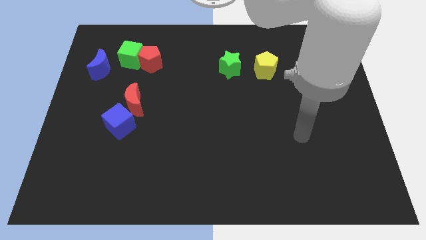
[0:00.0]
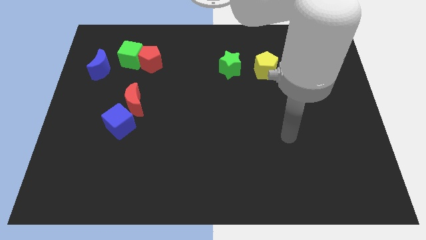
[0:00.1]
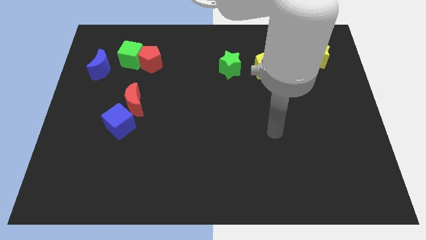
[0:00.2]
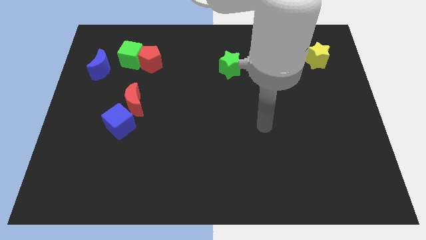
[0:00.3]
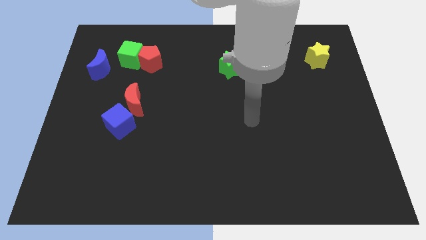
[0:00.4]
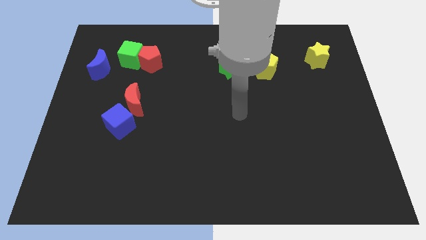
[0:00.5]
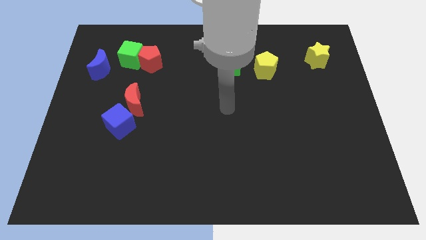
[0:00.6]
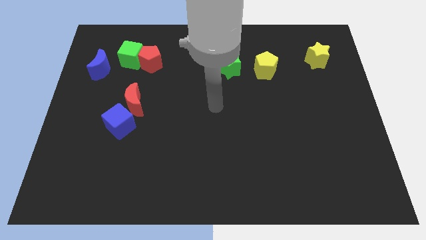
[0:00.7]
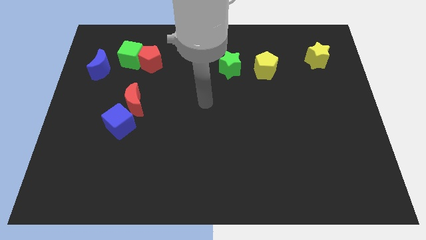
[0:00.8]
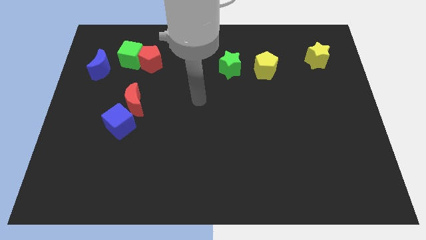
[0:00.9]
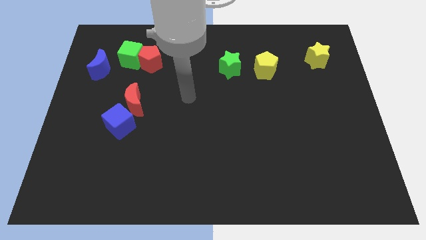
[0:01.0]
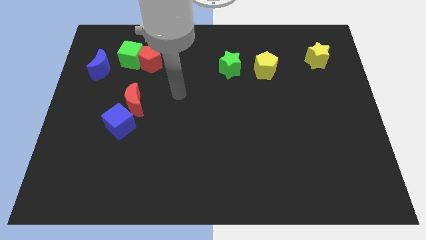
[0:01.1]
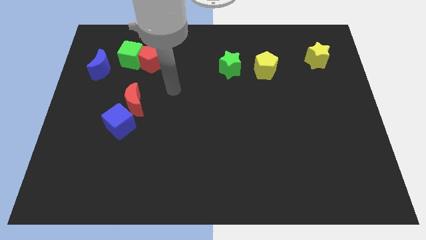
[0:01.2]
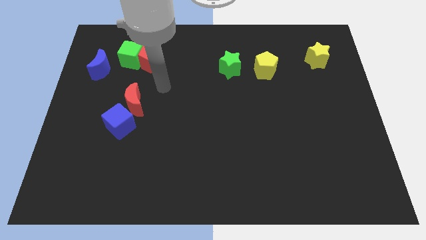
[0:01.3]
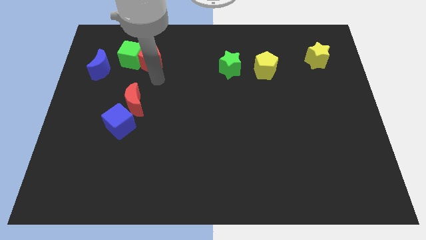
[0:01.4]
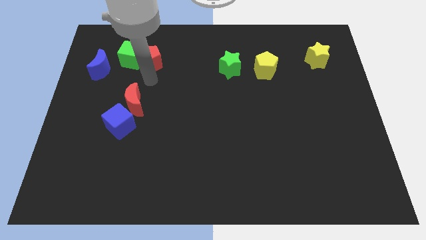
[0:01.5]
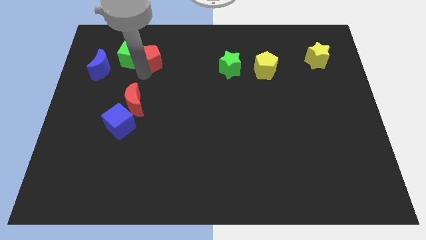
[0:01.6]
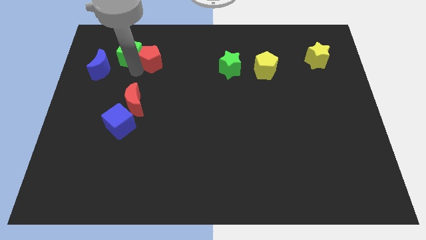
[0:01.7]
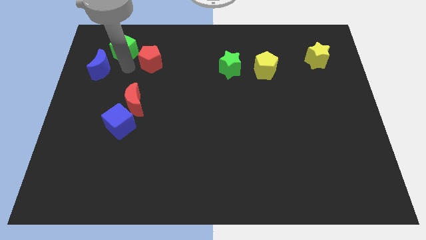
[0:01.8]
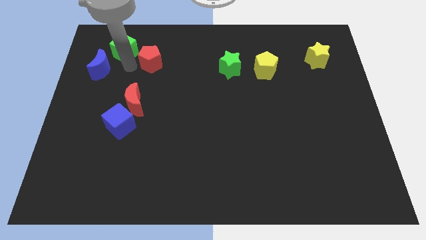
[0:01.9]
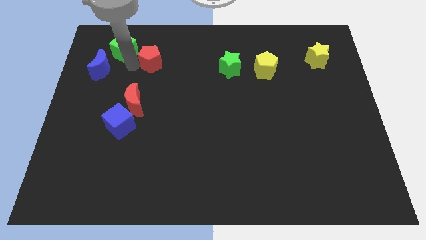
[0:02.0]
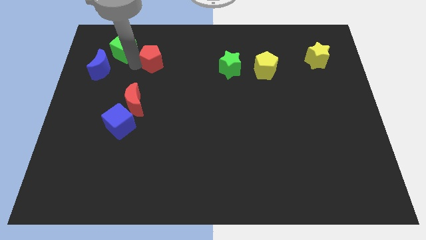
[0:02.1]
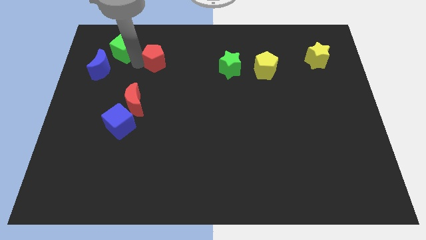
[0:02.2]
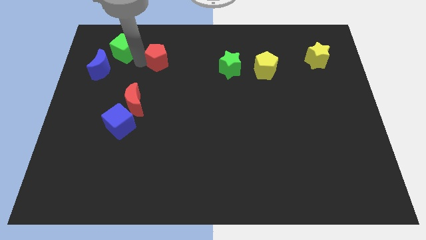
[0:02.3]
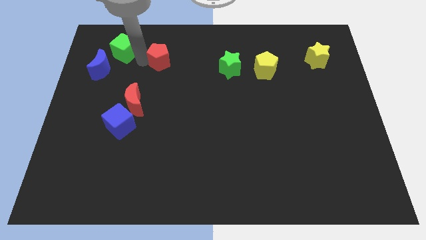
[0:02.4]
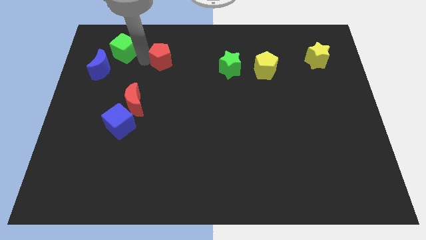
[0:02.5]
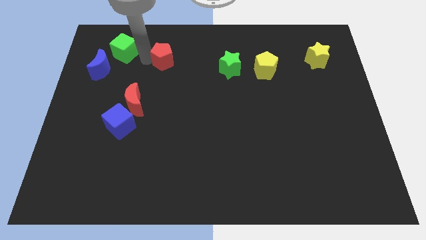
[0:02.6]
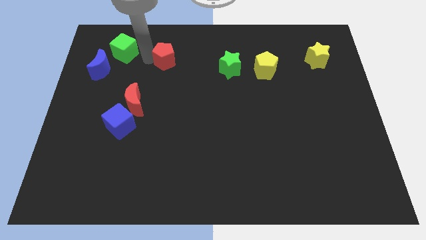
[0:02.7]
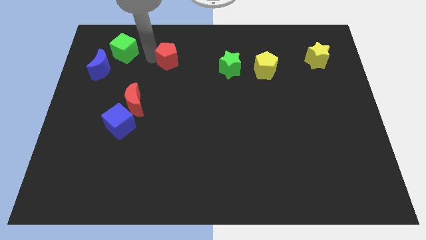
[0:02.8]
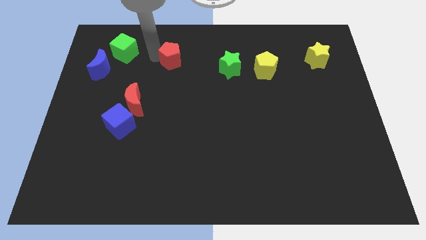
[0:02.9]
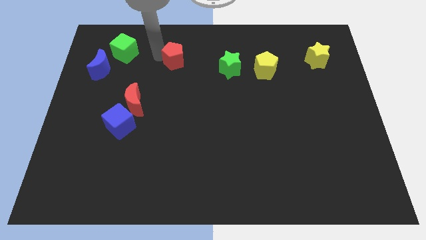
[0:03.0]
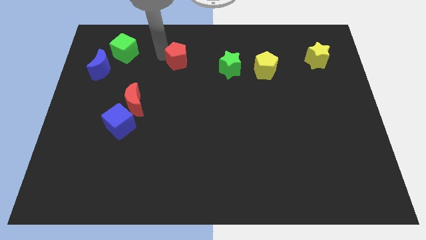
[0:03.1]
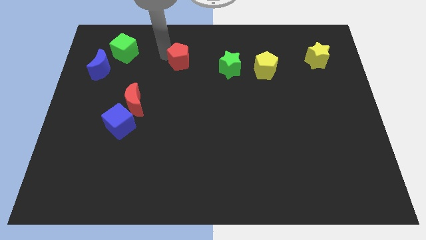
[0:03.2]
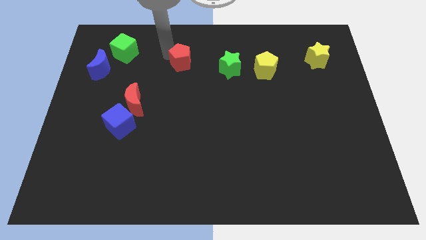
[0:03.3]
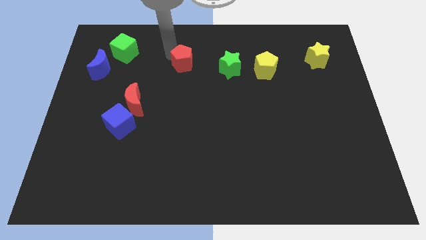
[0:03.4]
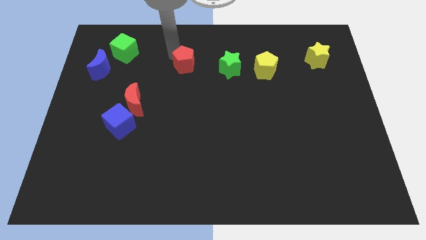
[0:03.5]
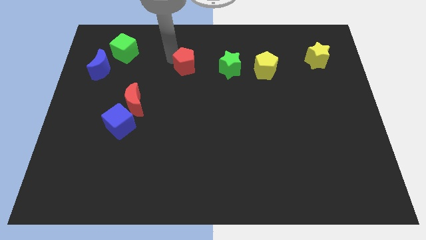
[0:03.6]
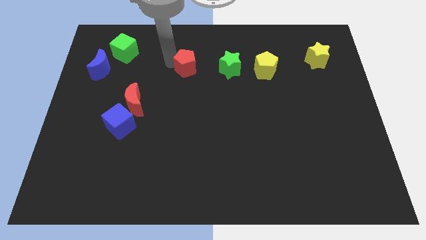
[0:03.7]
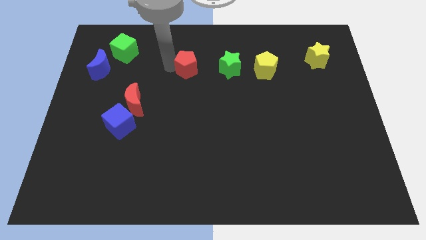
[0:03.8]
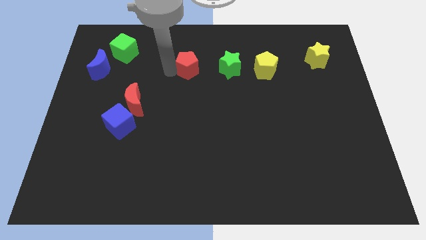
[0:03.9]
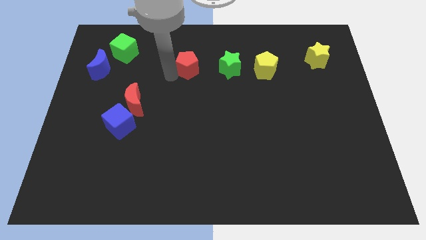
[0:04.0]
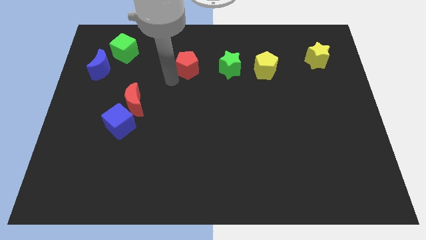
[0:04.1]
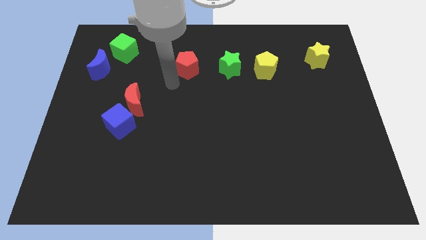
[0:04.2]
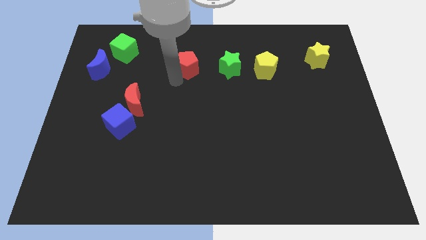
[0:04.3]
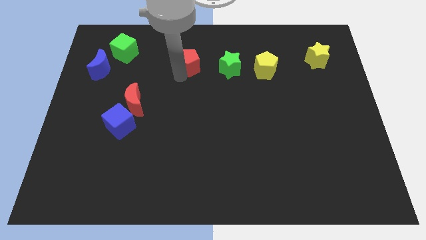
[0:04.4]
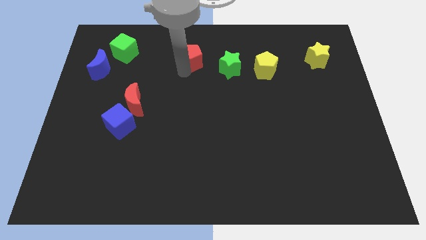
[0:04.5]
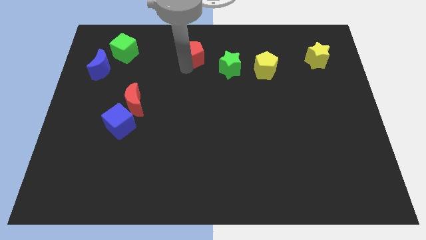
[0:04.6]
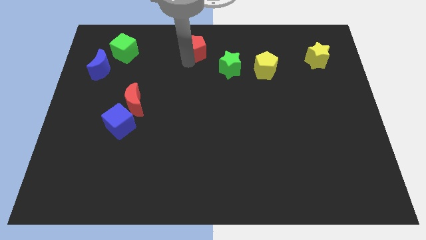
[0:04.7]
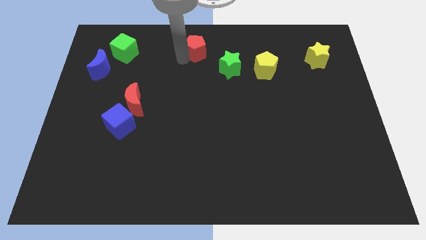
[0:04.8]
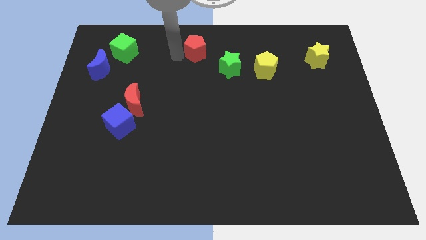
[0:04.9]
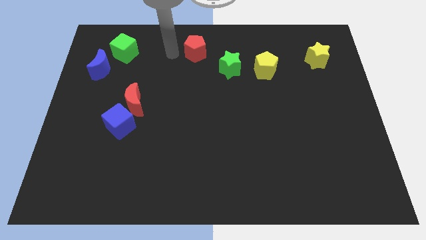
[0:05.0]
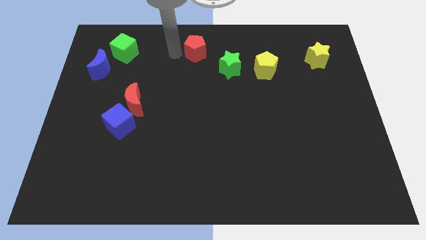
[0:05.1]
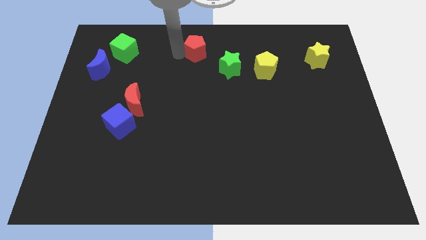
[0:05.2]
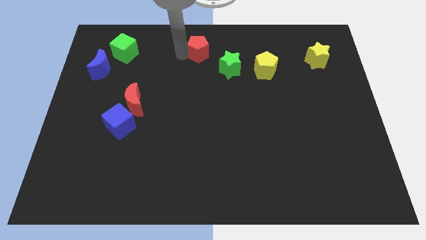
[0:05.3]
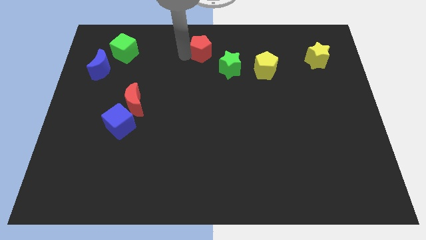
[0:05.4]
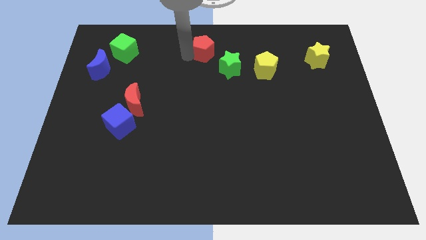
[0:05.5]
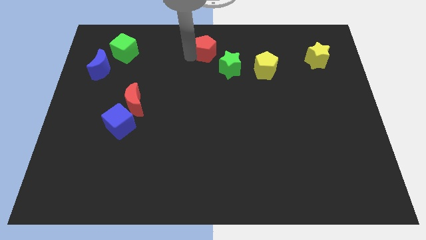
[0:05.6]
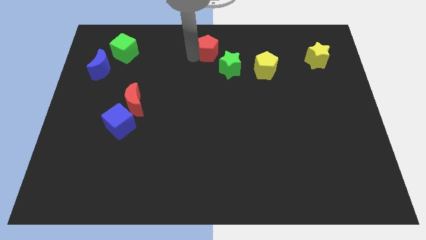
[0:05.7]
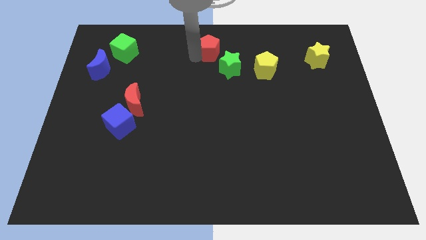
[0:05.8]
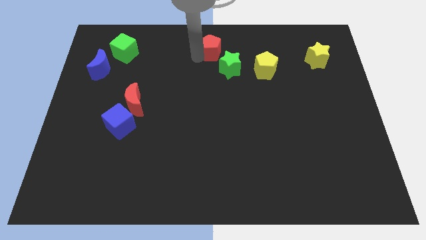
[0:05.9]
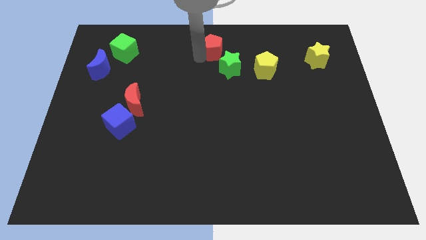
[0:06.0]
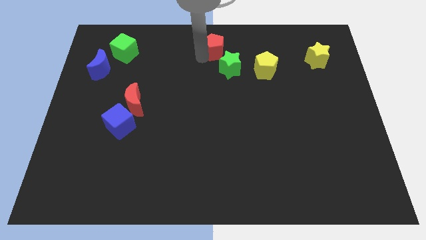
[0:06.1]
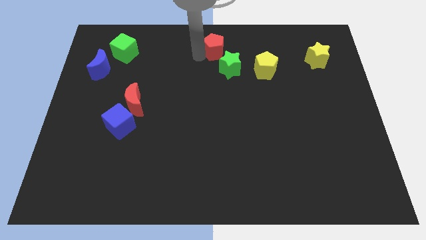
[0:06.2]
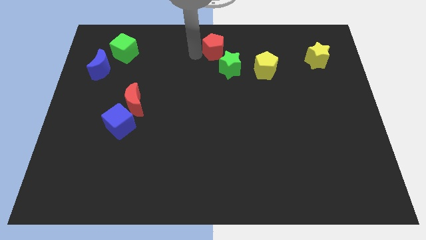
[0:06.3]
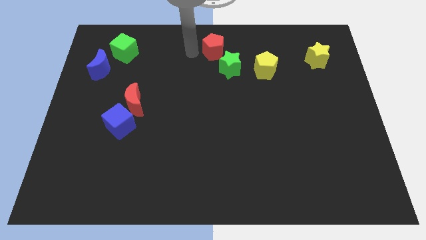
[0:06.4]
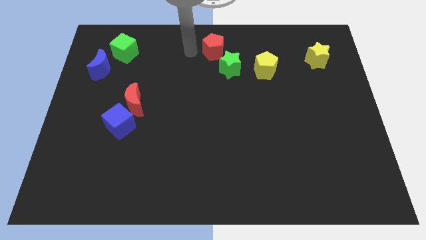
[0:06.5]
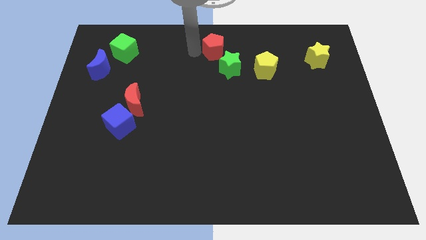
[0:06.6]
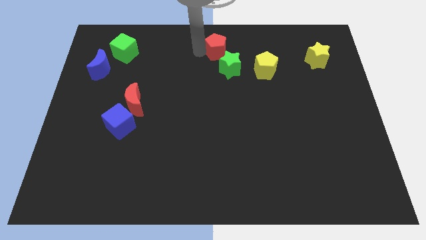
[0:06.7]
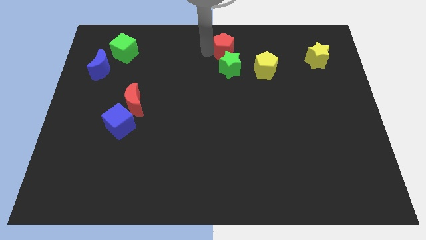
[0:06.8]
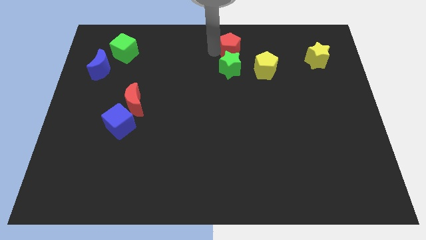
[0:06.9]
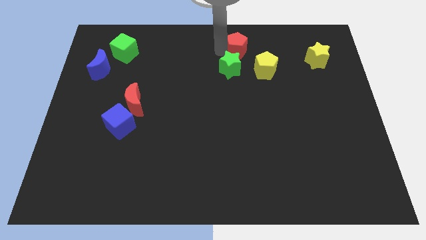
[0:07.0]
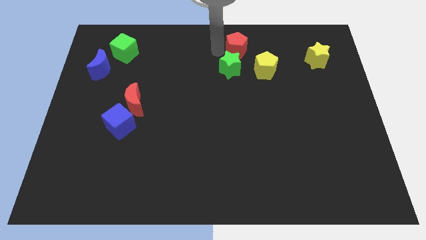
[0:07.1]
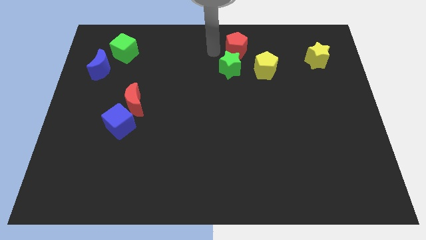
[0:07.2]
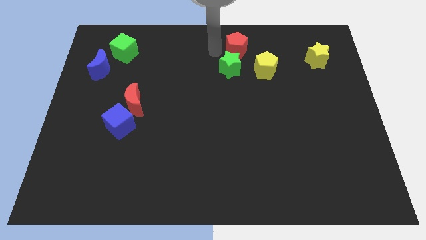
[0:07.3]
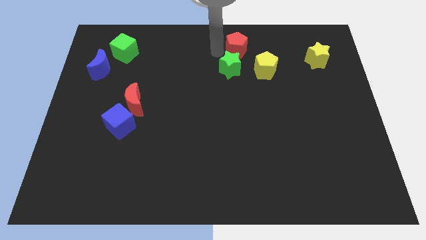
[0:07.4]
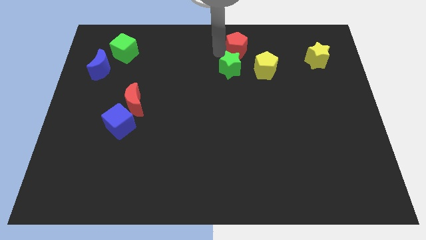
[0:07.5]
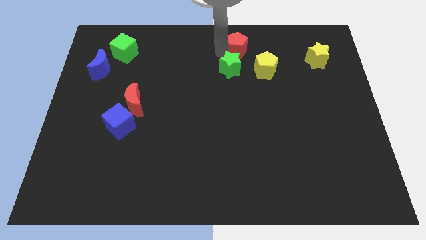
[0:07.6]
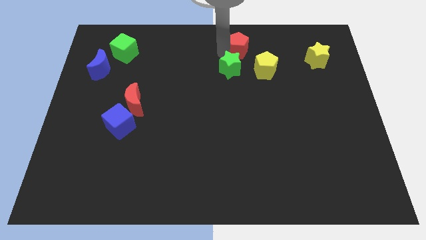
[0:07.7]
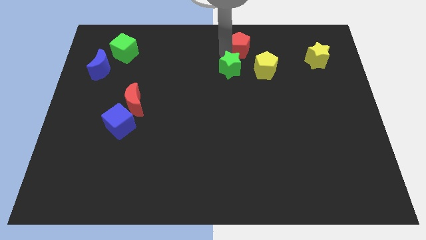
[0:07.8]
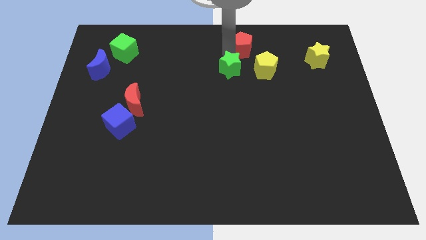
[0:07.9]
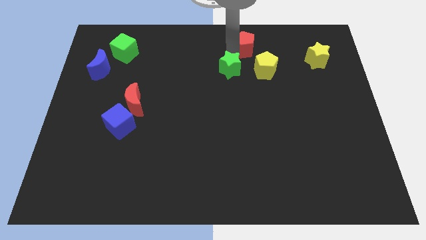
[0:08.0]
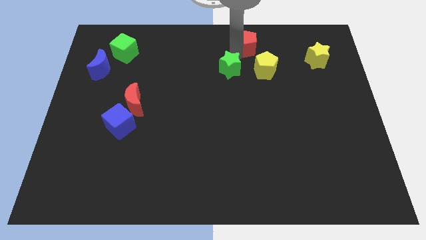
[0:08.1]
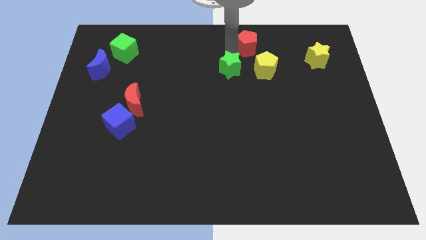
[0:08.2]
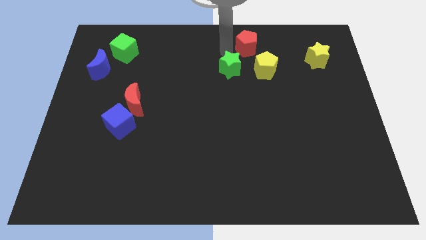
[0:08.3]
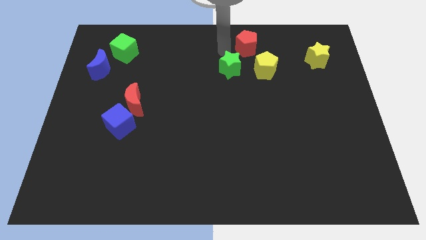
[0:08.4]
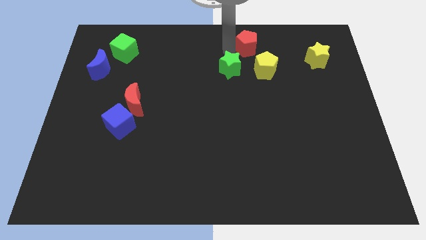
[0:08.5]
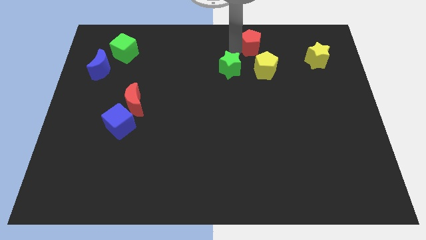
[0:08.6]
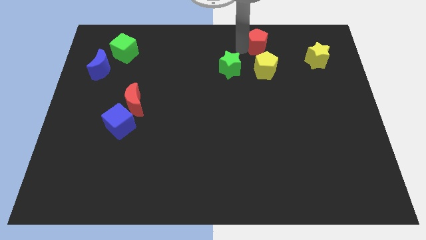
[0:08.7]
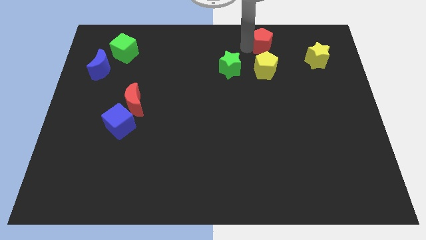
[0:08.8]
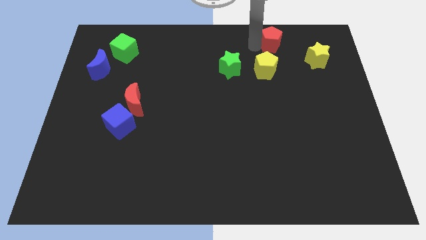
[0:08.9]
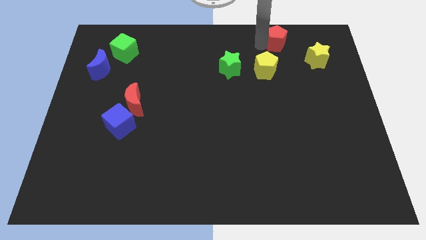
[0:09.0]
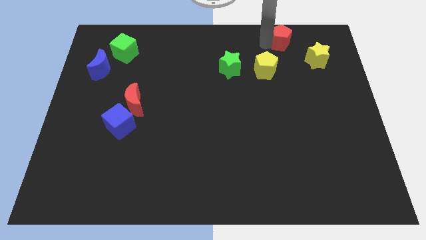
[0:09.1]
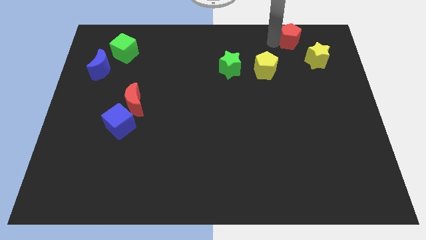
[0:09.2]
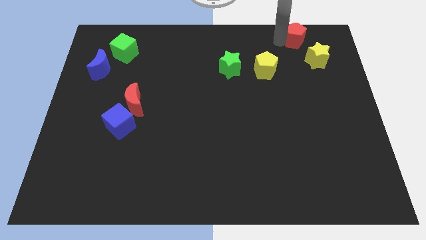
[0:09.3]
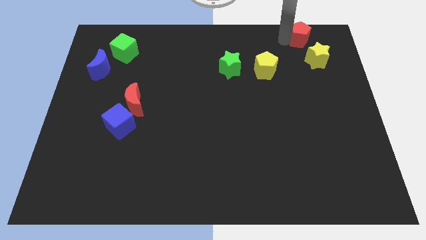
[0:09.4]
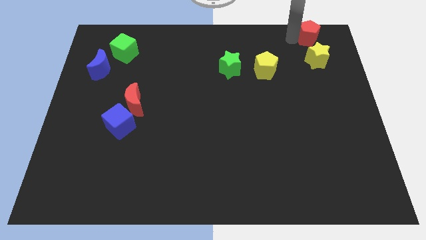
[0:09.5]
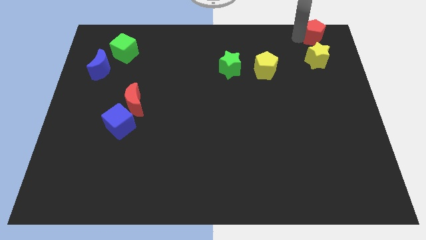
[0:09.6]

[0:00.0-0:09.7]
slide the red pentagon to the top right corner
